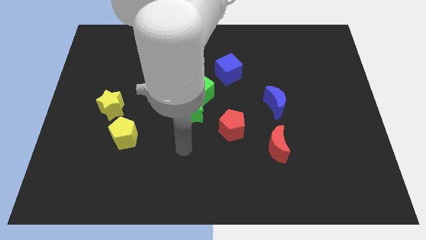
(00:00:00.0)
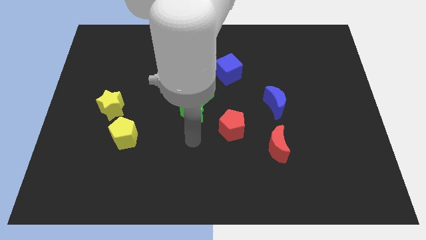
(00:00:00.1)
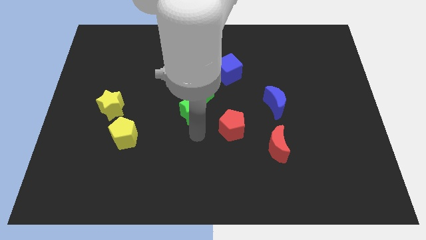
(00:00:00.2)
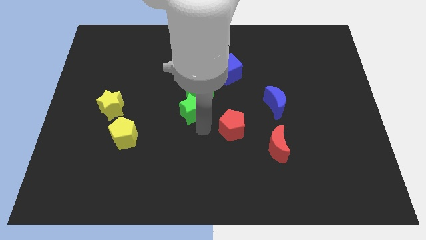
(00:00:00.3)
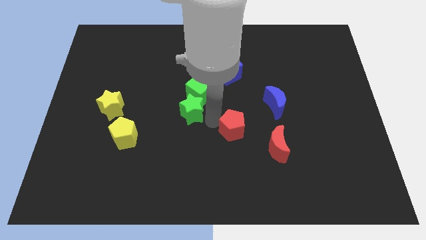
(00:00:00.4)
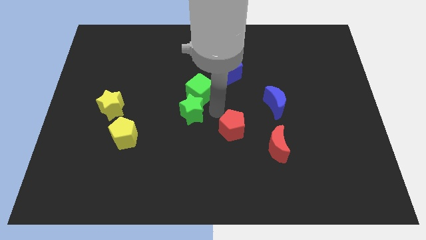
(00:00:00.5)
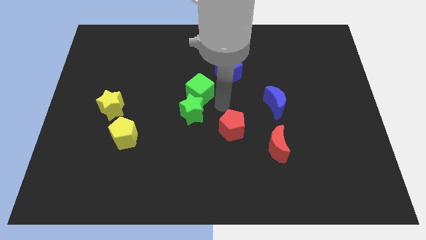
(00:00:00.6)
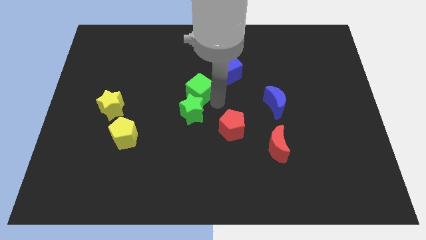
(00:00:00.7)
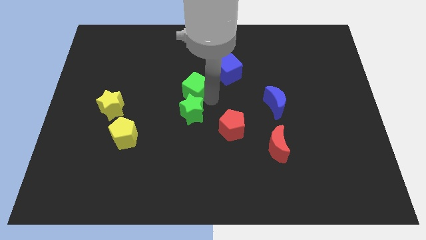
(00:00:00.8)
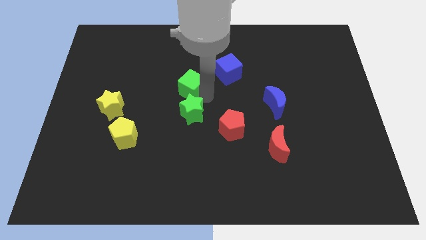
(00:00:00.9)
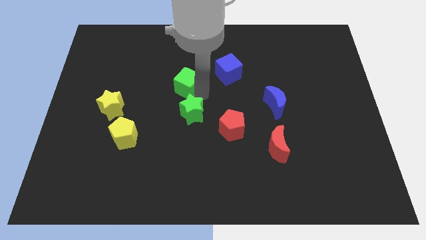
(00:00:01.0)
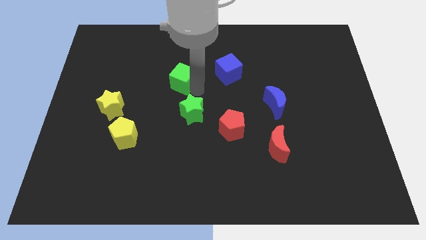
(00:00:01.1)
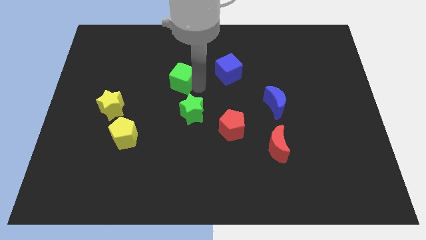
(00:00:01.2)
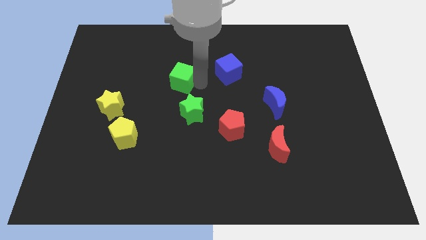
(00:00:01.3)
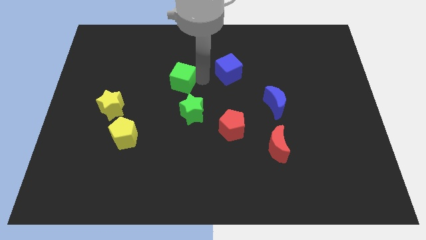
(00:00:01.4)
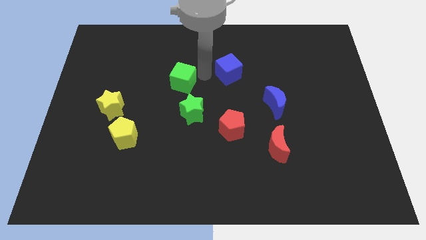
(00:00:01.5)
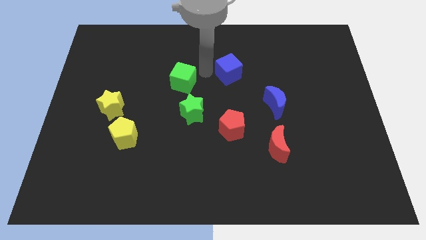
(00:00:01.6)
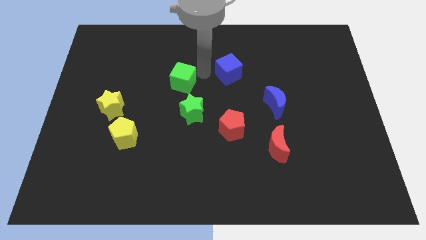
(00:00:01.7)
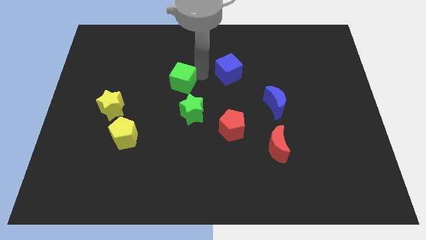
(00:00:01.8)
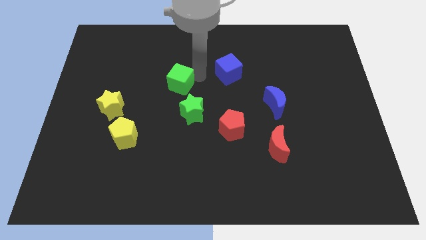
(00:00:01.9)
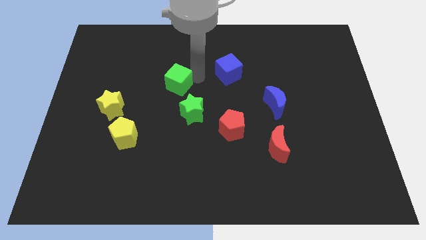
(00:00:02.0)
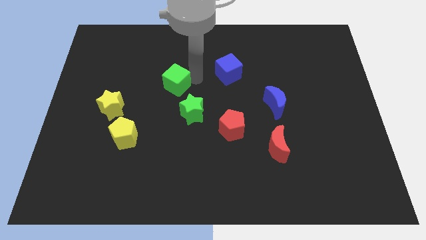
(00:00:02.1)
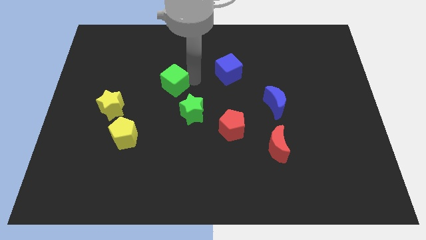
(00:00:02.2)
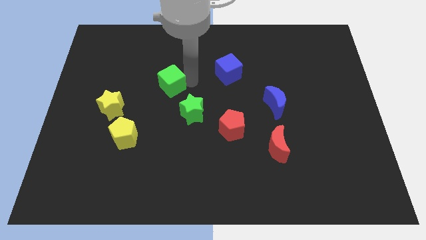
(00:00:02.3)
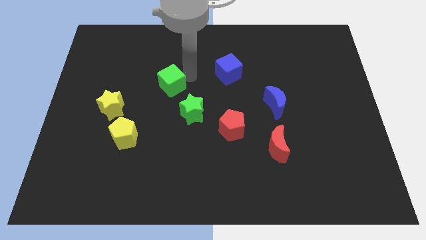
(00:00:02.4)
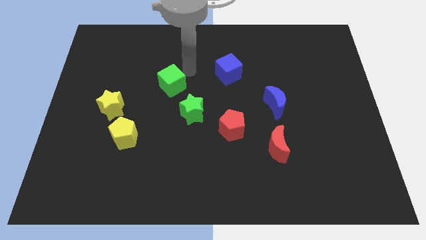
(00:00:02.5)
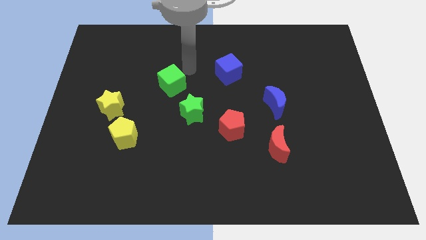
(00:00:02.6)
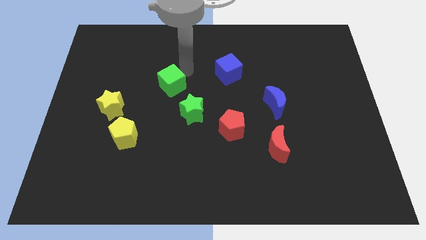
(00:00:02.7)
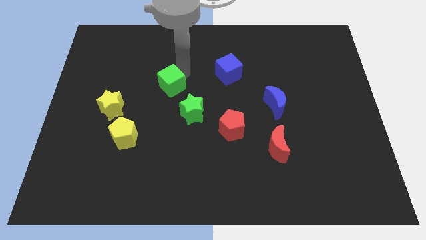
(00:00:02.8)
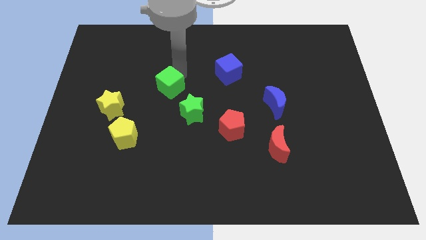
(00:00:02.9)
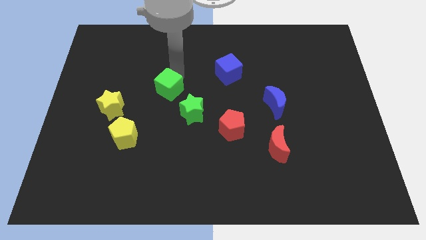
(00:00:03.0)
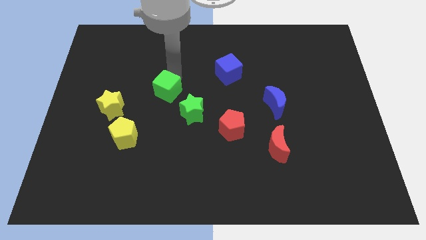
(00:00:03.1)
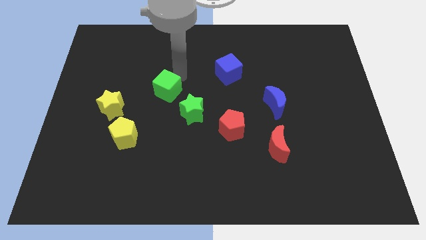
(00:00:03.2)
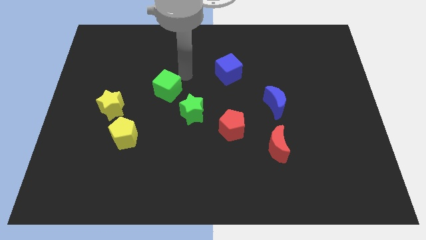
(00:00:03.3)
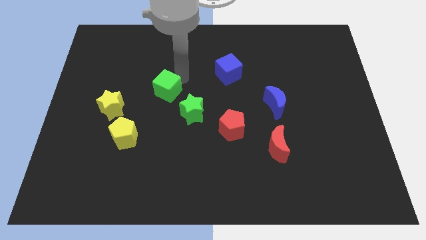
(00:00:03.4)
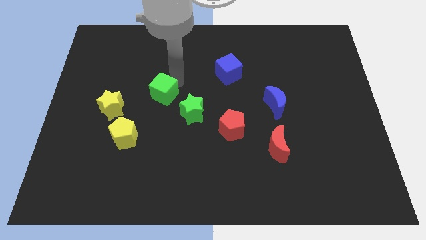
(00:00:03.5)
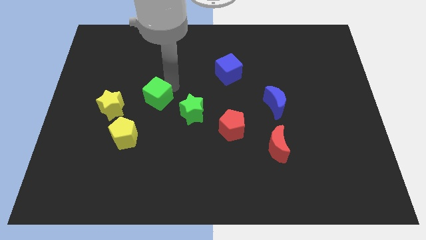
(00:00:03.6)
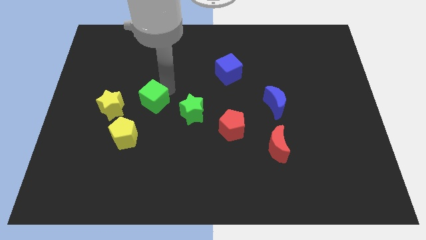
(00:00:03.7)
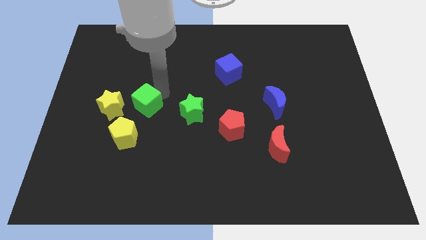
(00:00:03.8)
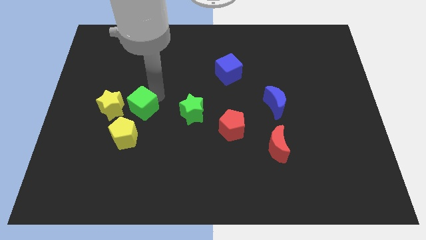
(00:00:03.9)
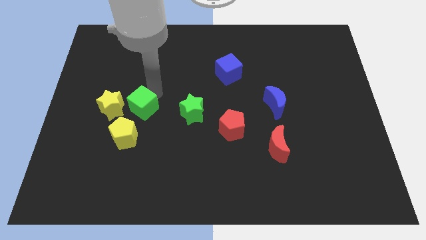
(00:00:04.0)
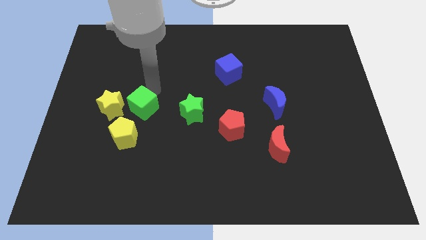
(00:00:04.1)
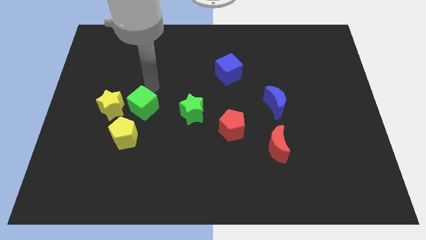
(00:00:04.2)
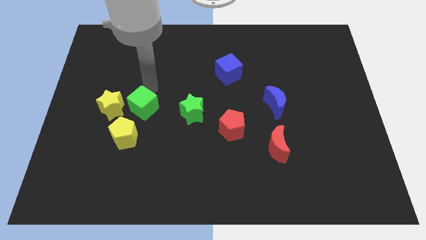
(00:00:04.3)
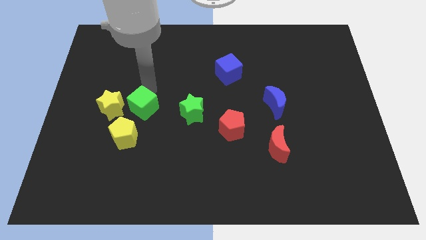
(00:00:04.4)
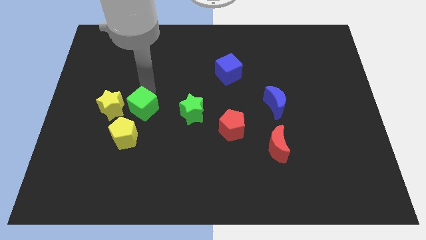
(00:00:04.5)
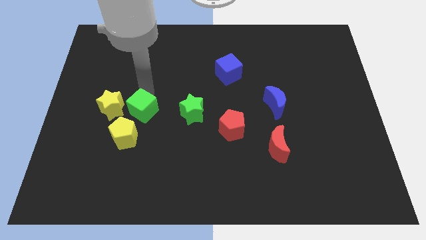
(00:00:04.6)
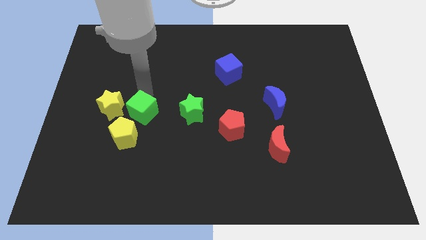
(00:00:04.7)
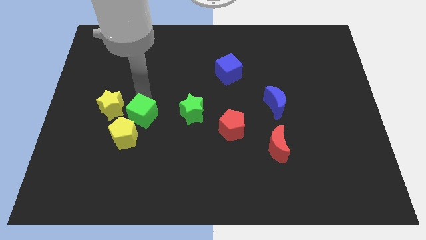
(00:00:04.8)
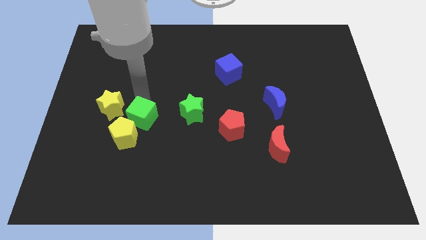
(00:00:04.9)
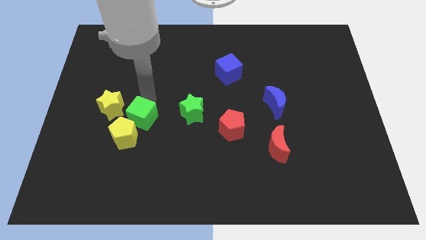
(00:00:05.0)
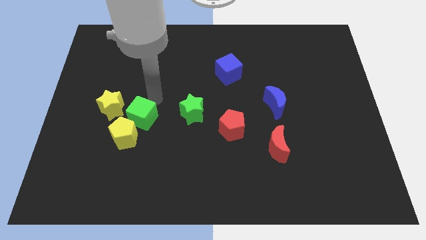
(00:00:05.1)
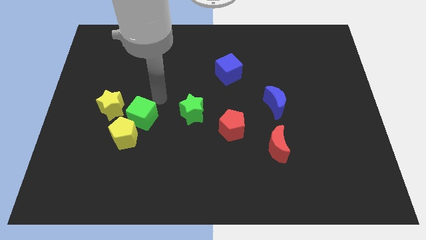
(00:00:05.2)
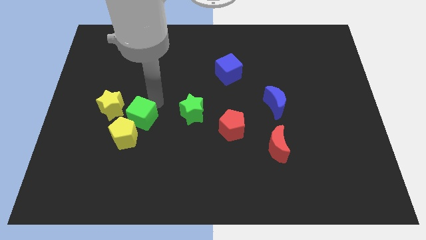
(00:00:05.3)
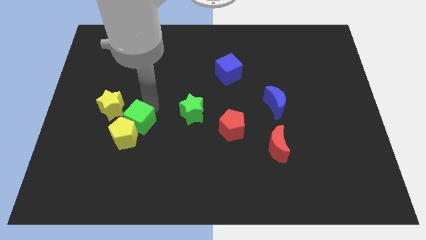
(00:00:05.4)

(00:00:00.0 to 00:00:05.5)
push the green cube close to the yellow pentagon

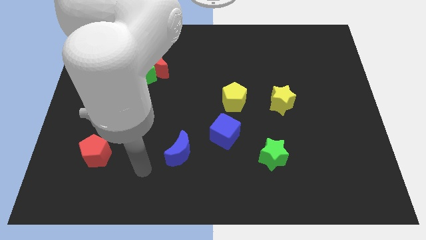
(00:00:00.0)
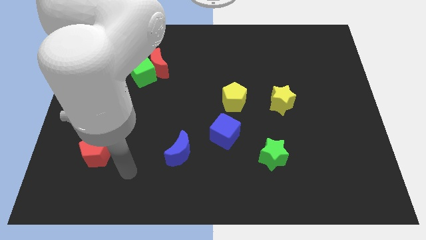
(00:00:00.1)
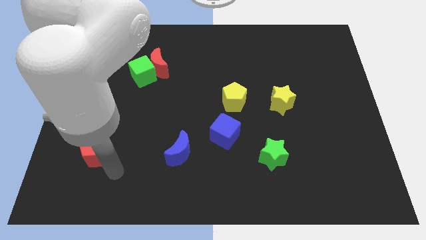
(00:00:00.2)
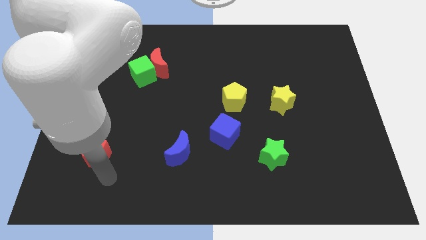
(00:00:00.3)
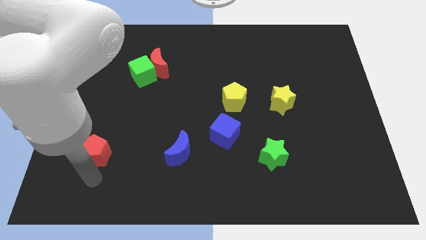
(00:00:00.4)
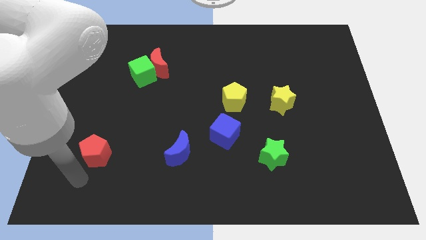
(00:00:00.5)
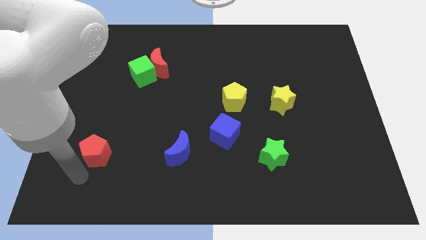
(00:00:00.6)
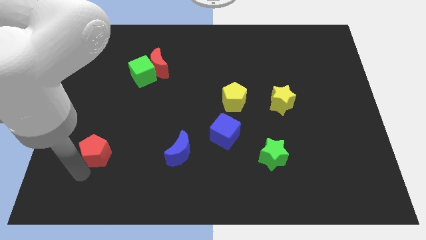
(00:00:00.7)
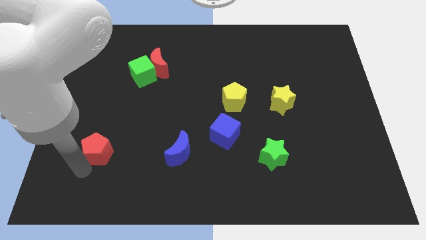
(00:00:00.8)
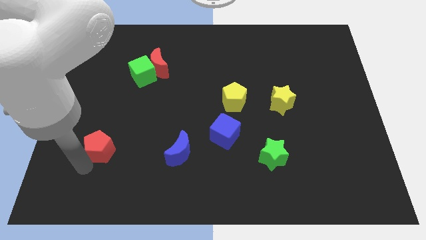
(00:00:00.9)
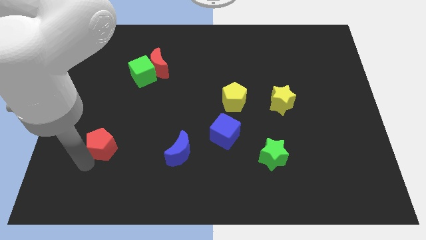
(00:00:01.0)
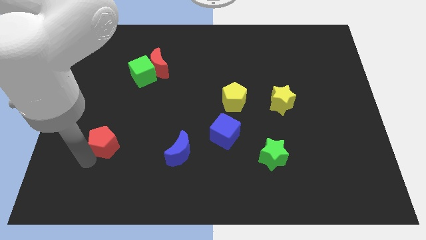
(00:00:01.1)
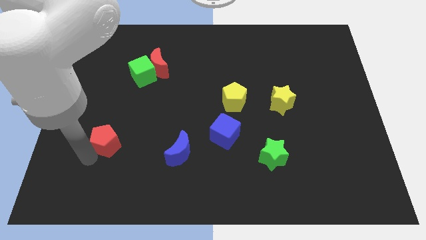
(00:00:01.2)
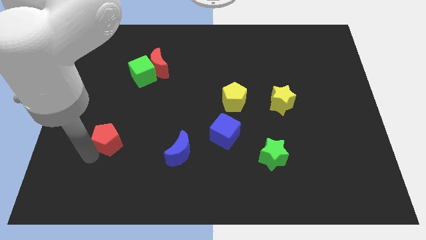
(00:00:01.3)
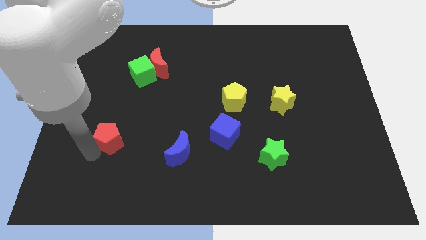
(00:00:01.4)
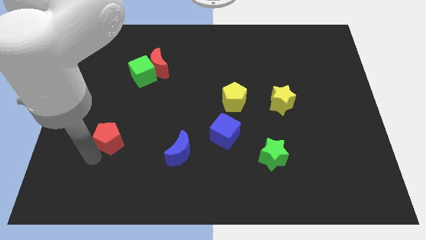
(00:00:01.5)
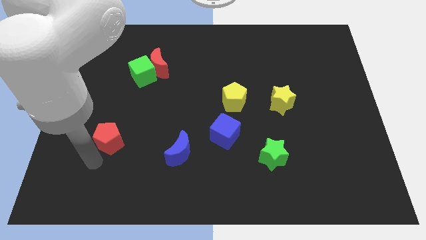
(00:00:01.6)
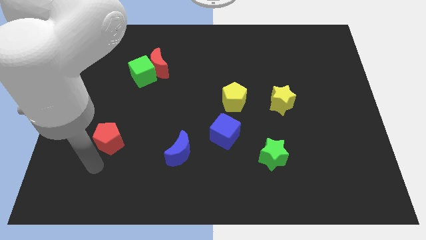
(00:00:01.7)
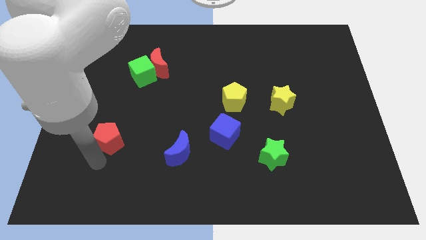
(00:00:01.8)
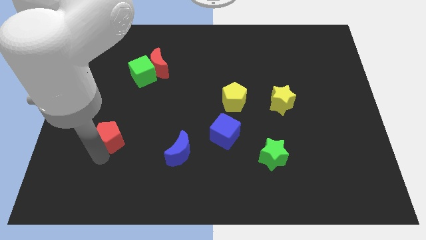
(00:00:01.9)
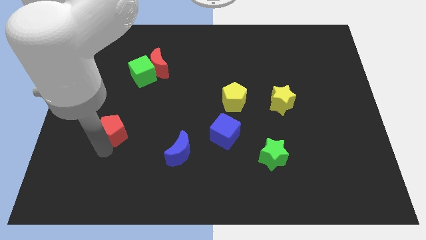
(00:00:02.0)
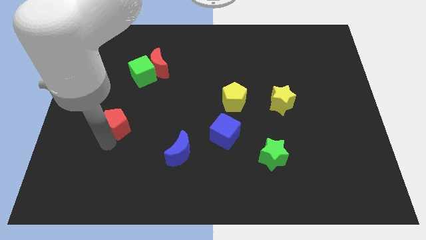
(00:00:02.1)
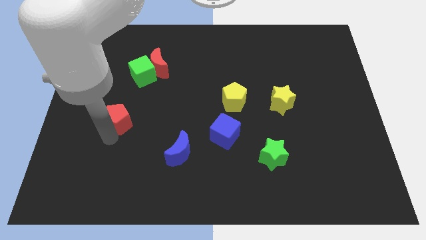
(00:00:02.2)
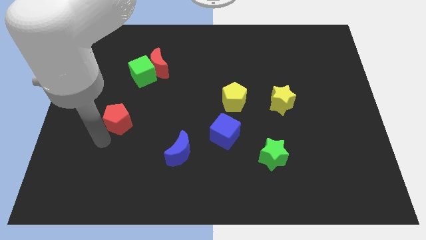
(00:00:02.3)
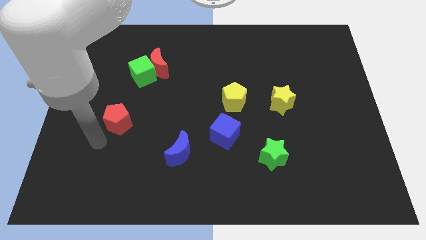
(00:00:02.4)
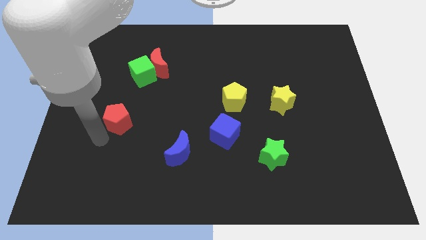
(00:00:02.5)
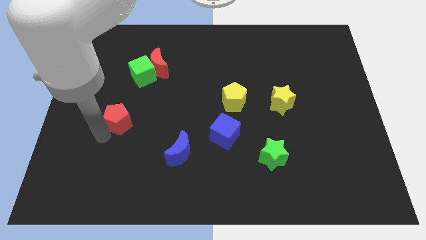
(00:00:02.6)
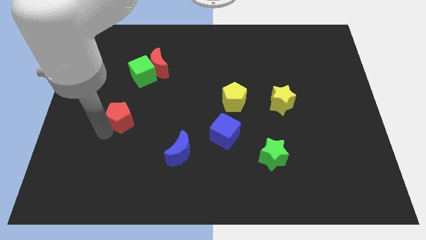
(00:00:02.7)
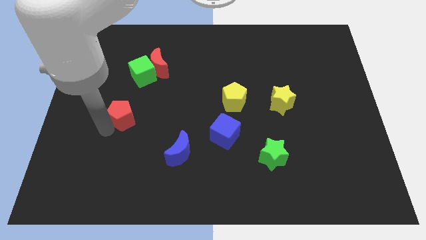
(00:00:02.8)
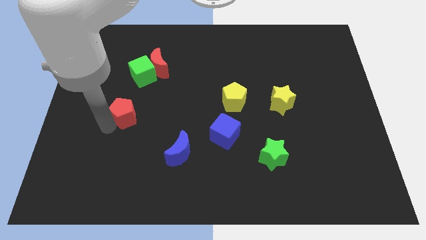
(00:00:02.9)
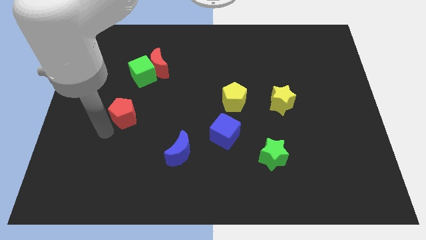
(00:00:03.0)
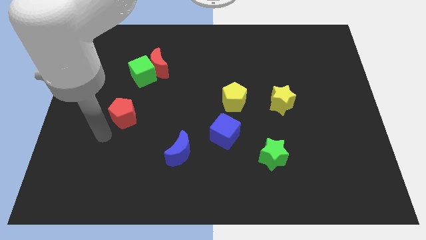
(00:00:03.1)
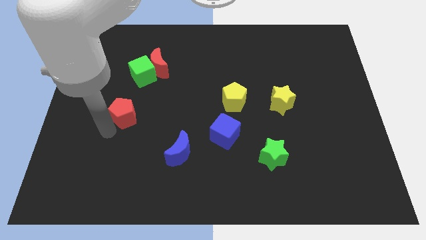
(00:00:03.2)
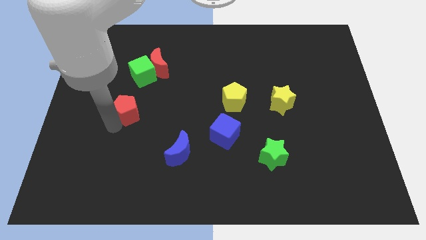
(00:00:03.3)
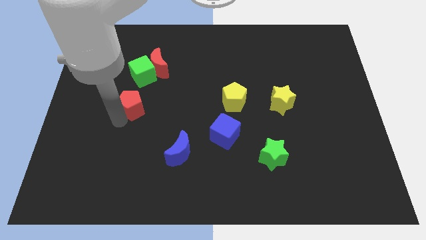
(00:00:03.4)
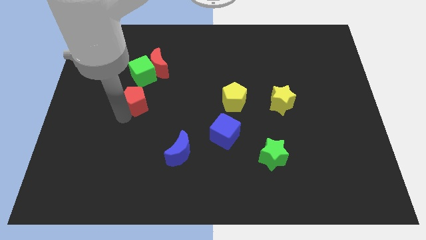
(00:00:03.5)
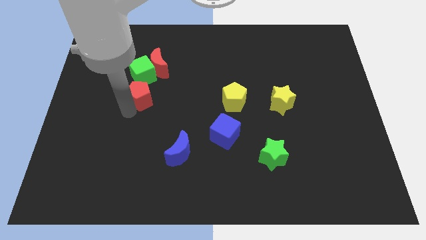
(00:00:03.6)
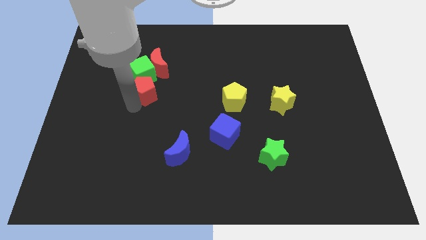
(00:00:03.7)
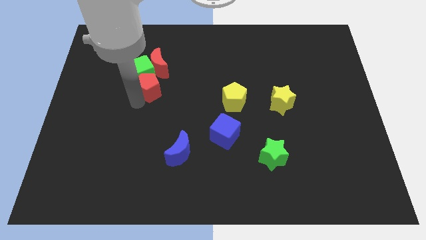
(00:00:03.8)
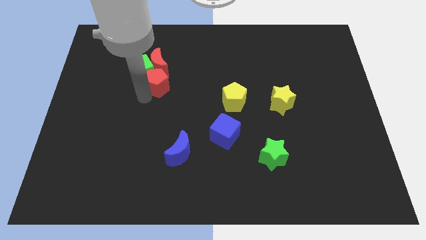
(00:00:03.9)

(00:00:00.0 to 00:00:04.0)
put the red pentagon close to the red moon
